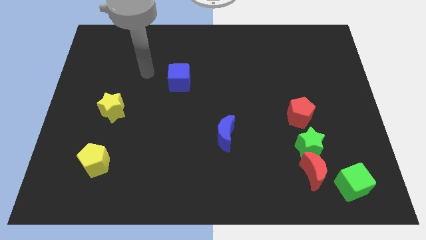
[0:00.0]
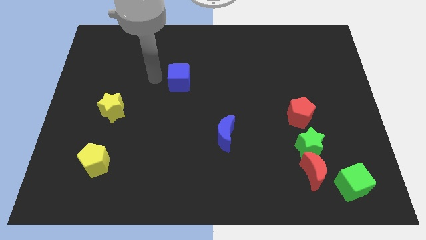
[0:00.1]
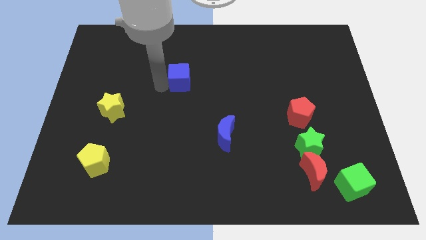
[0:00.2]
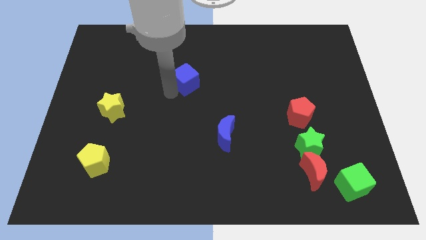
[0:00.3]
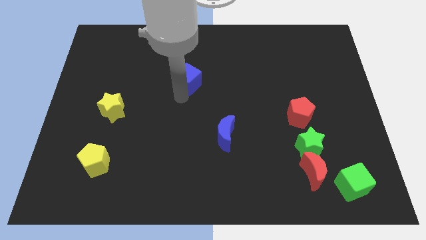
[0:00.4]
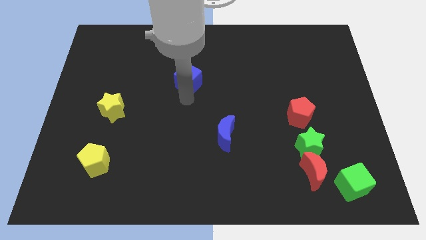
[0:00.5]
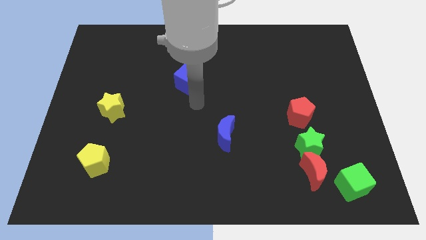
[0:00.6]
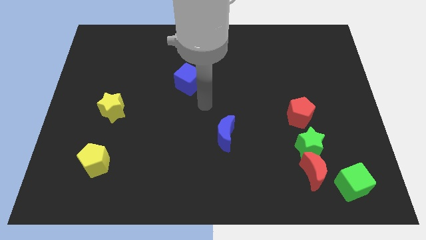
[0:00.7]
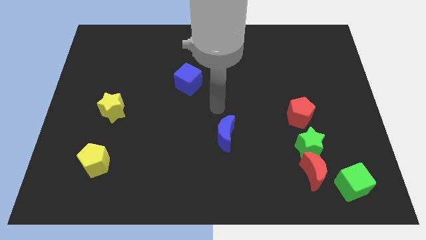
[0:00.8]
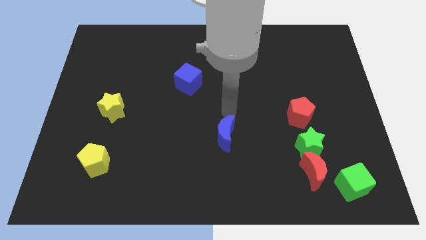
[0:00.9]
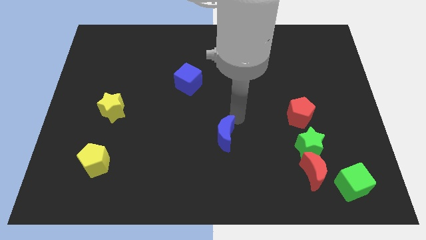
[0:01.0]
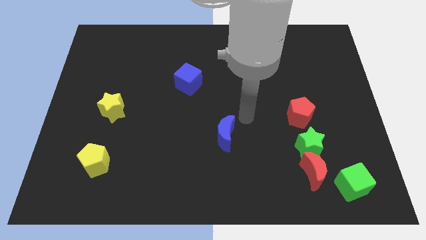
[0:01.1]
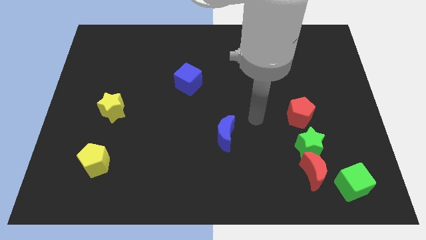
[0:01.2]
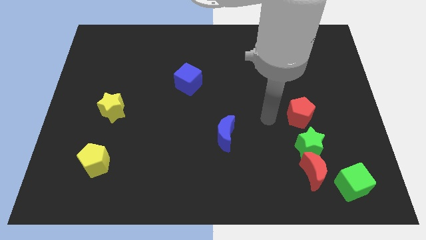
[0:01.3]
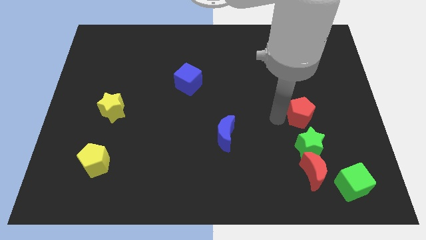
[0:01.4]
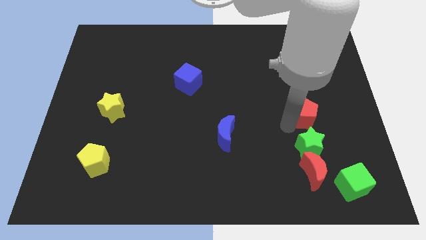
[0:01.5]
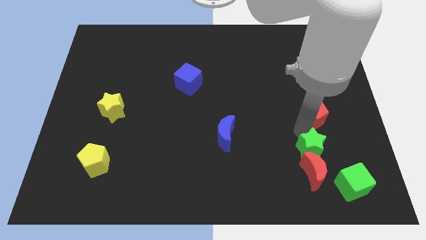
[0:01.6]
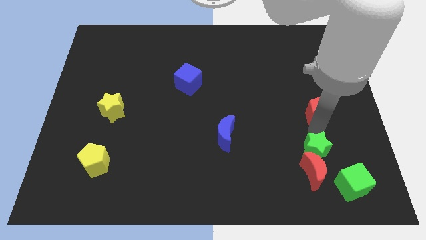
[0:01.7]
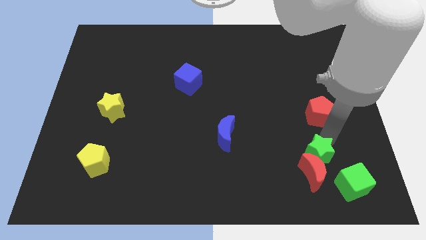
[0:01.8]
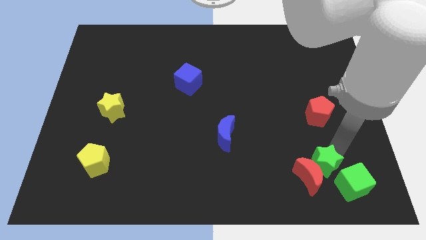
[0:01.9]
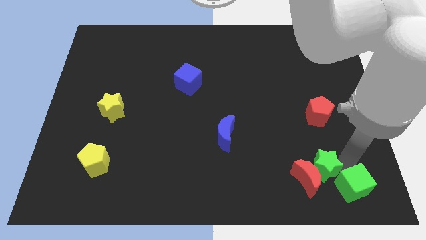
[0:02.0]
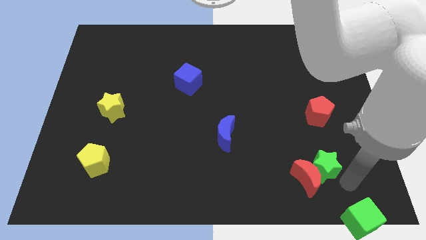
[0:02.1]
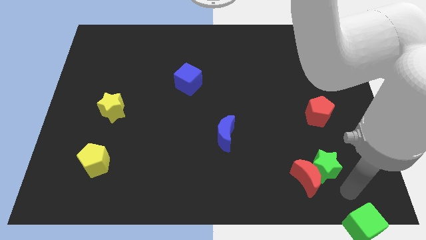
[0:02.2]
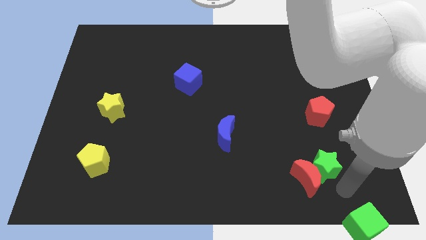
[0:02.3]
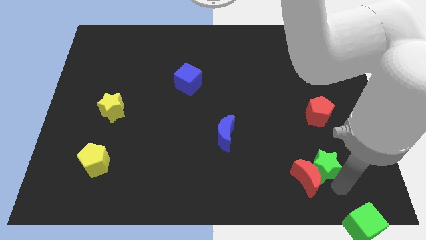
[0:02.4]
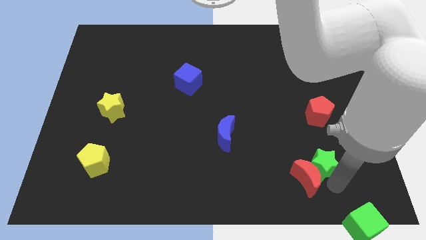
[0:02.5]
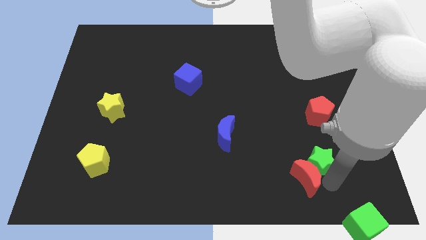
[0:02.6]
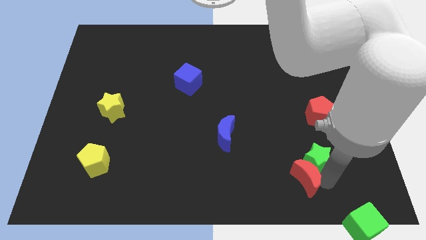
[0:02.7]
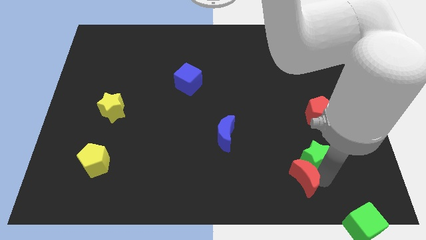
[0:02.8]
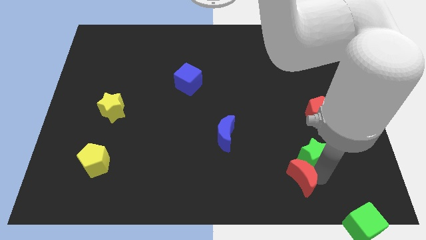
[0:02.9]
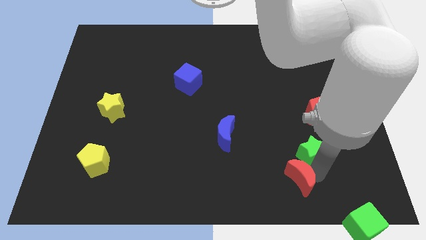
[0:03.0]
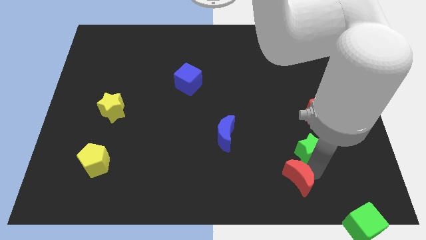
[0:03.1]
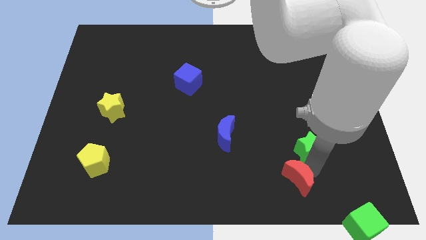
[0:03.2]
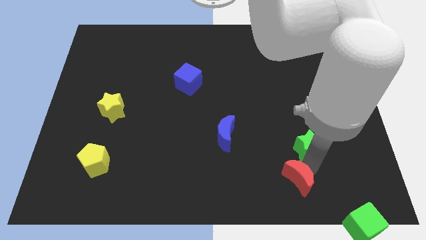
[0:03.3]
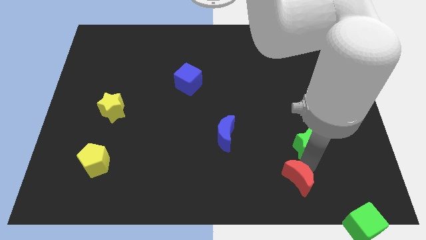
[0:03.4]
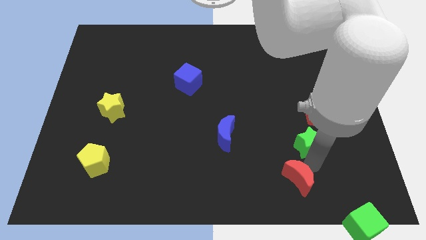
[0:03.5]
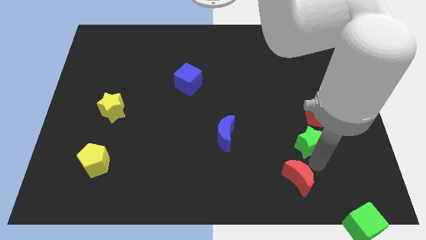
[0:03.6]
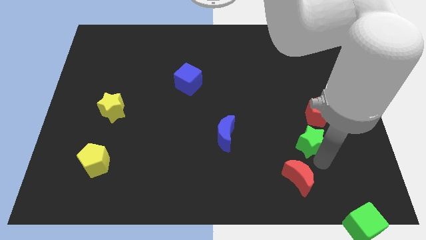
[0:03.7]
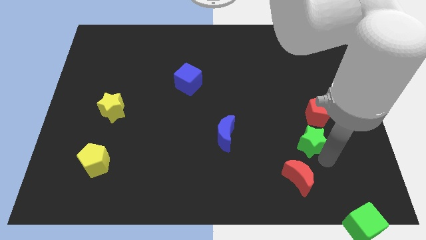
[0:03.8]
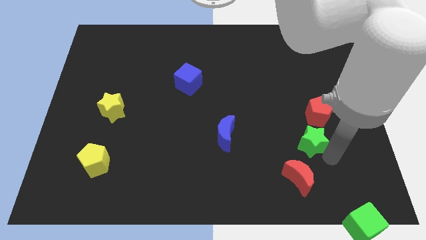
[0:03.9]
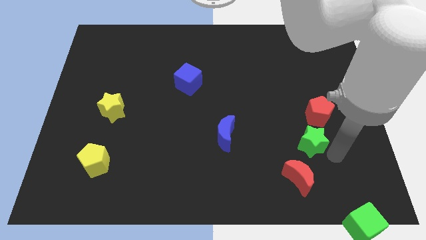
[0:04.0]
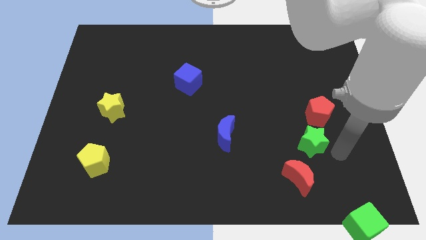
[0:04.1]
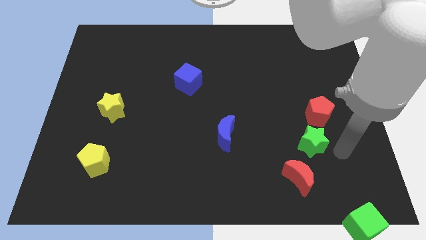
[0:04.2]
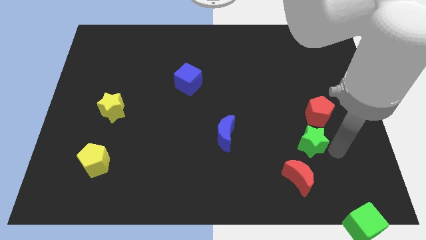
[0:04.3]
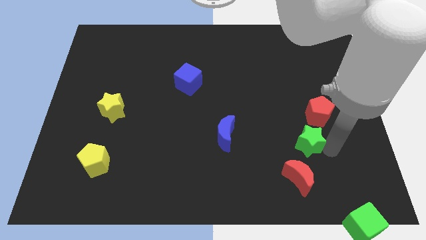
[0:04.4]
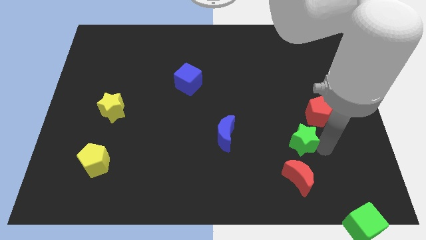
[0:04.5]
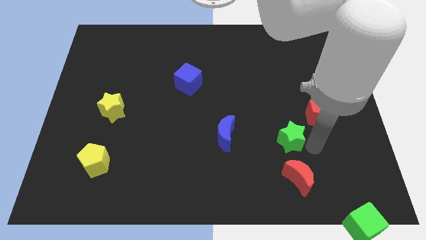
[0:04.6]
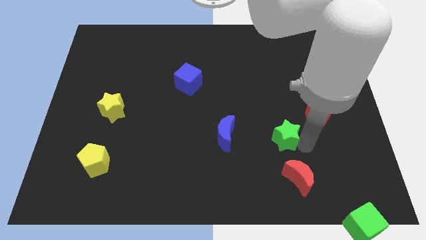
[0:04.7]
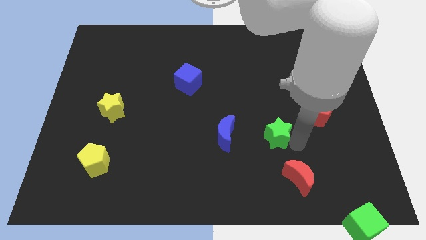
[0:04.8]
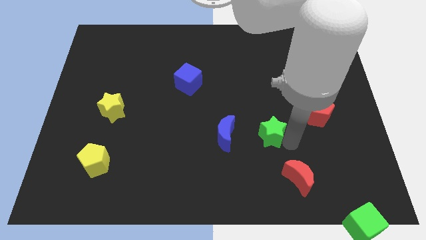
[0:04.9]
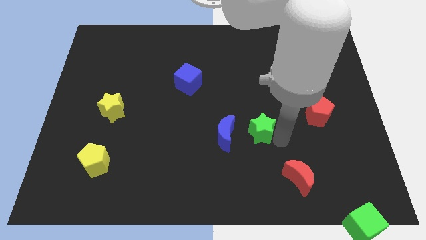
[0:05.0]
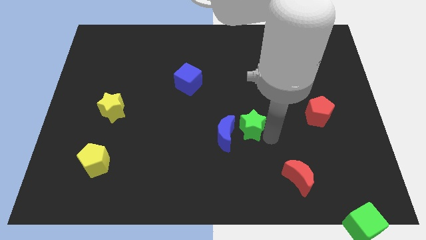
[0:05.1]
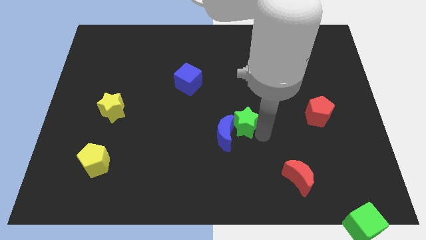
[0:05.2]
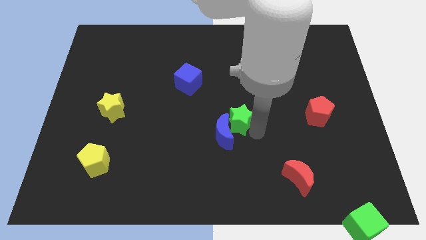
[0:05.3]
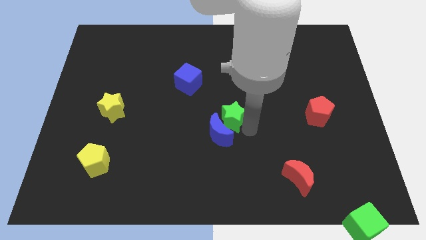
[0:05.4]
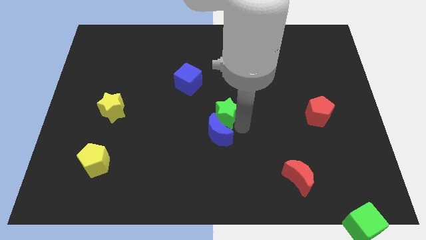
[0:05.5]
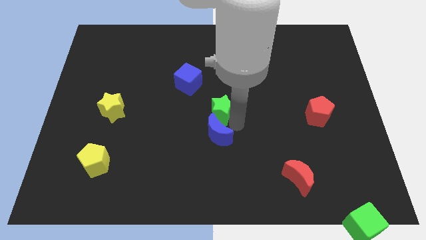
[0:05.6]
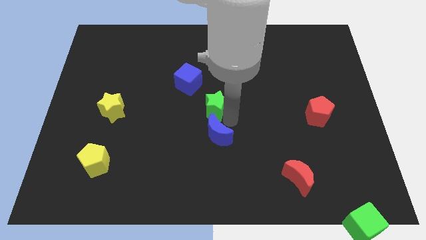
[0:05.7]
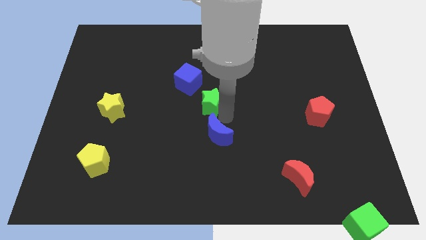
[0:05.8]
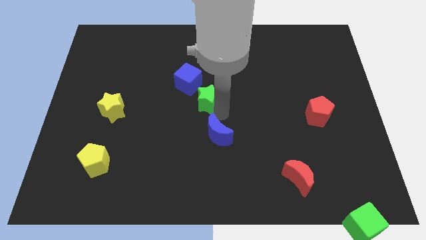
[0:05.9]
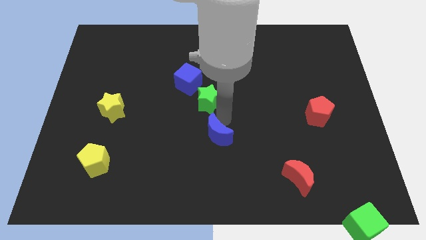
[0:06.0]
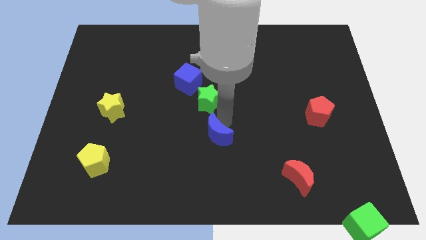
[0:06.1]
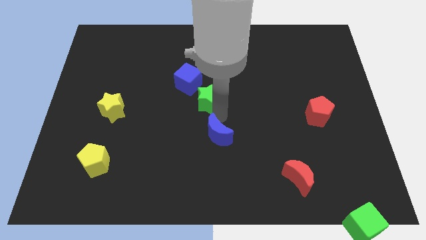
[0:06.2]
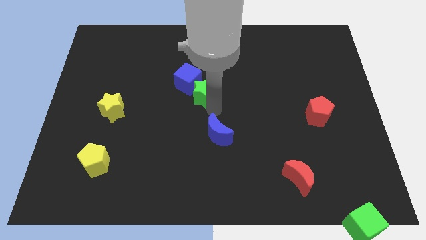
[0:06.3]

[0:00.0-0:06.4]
put the green star to the blue cube

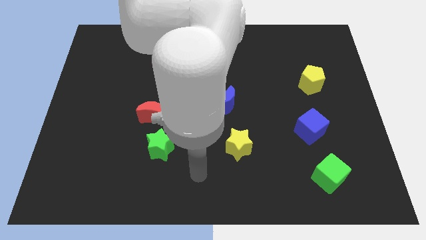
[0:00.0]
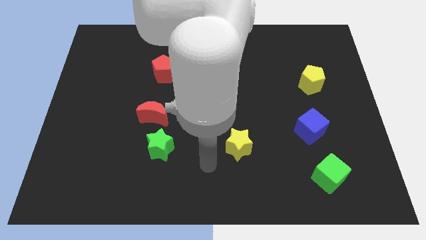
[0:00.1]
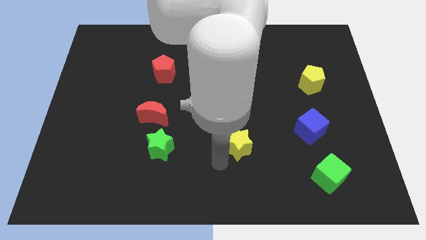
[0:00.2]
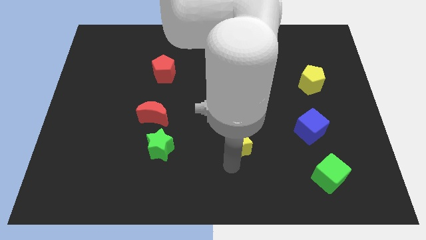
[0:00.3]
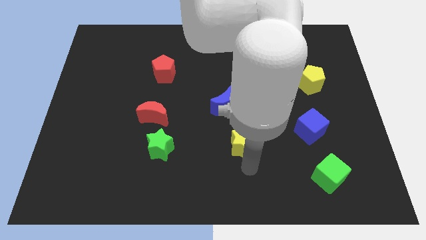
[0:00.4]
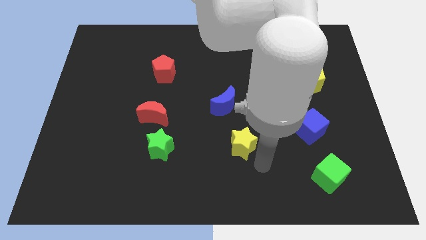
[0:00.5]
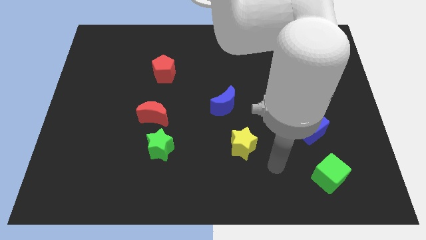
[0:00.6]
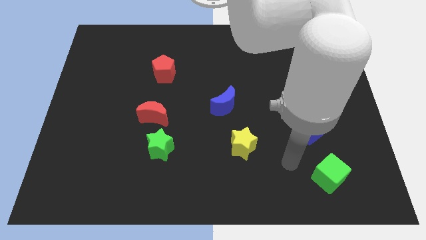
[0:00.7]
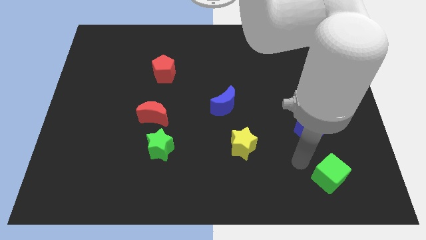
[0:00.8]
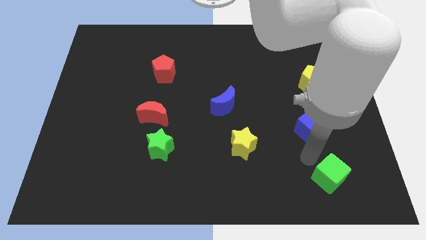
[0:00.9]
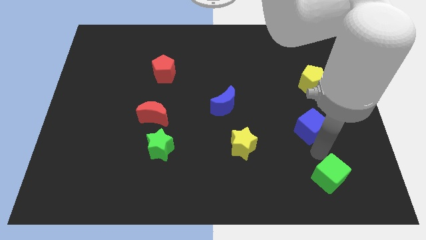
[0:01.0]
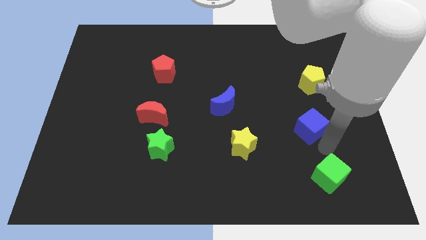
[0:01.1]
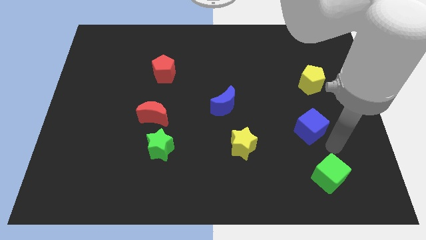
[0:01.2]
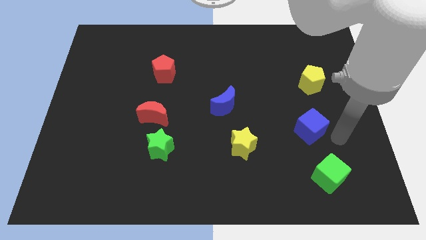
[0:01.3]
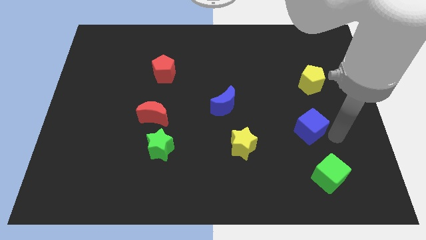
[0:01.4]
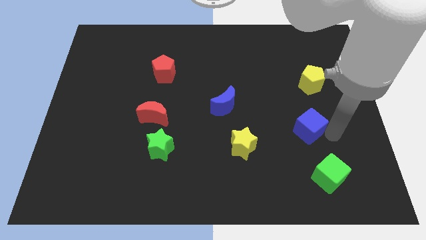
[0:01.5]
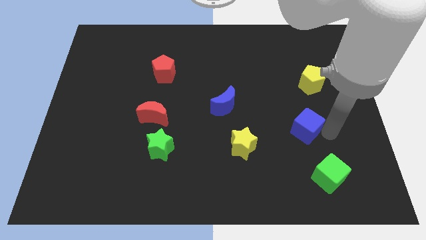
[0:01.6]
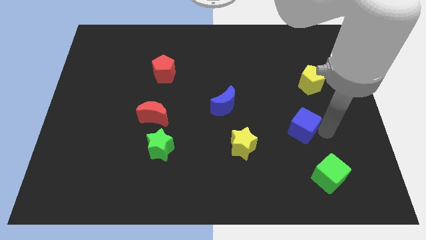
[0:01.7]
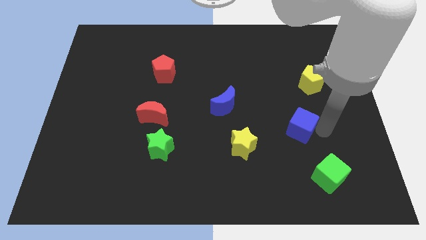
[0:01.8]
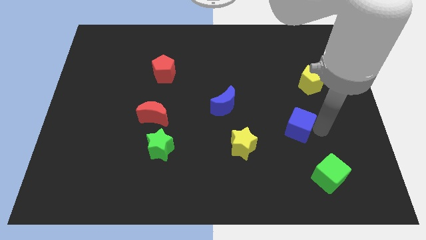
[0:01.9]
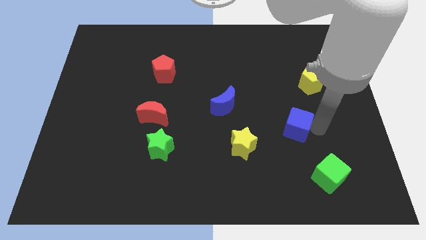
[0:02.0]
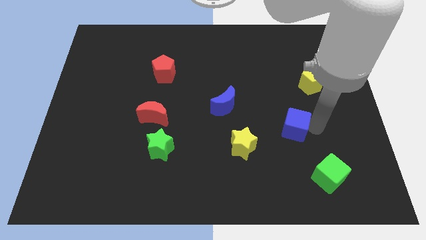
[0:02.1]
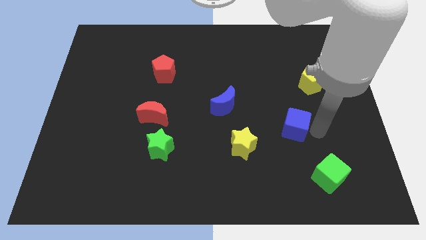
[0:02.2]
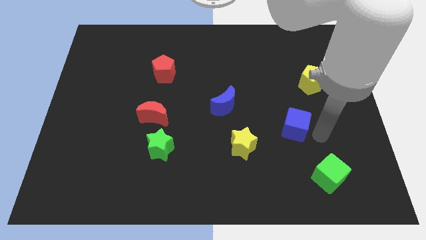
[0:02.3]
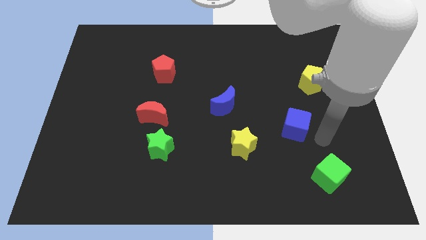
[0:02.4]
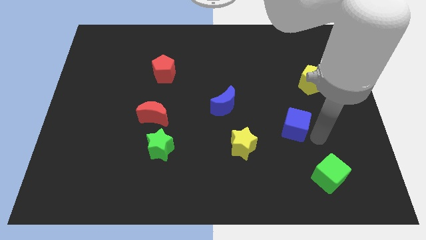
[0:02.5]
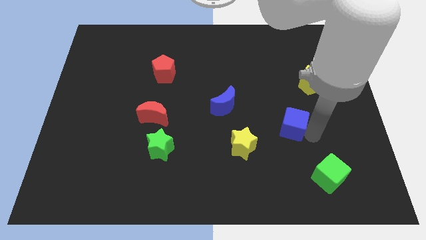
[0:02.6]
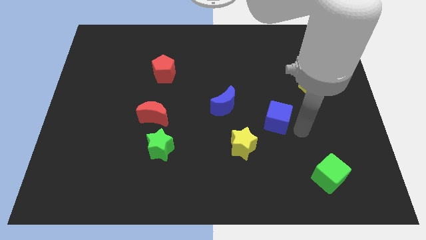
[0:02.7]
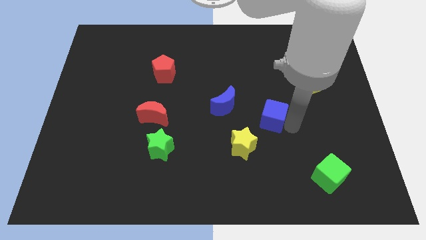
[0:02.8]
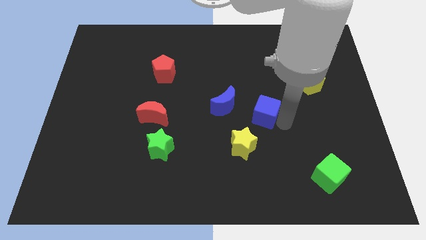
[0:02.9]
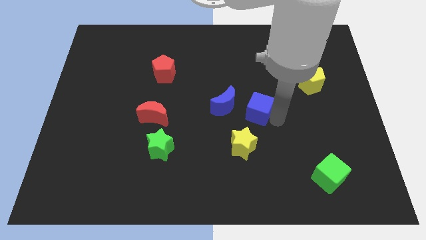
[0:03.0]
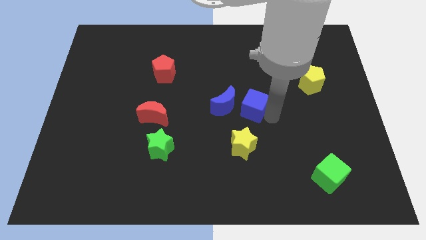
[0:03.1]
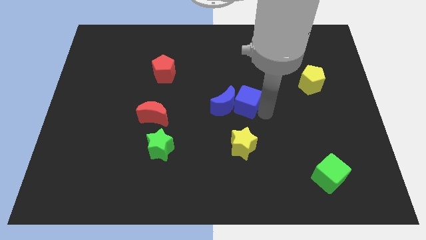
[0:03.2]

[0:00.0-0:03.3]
push the blue cube to the blue moon
